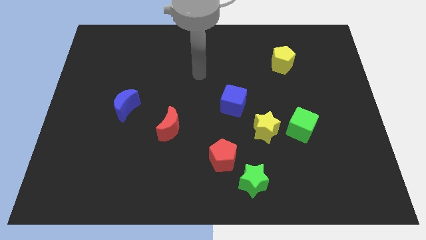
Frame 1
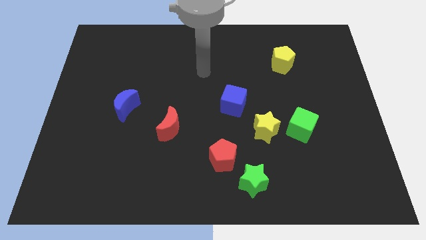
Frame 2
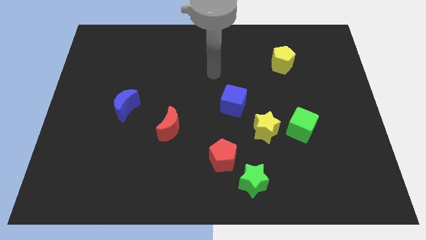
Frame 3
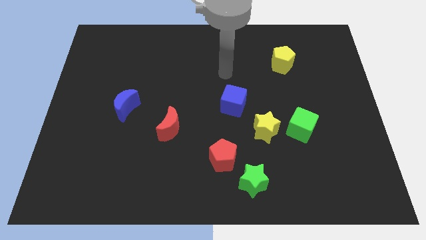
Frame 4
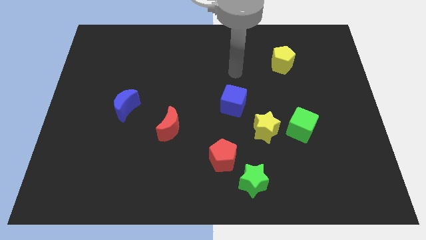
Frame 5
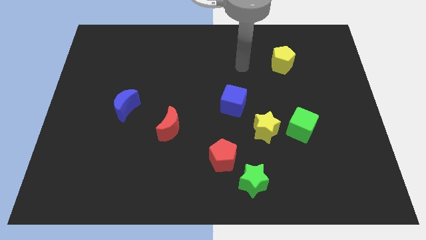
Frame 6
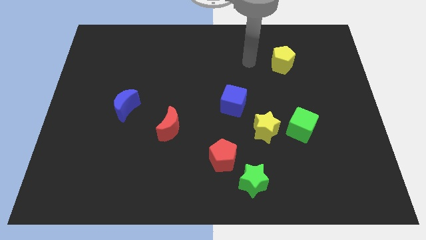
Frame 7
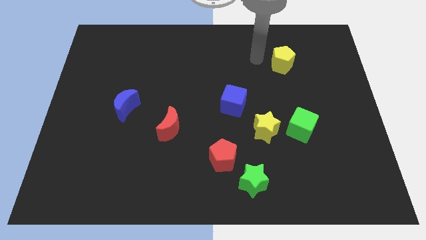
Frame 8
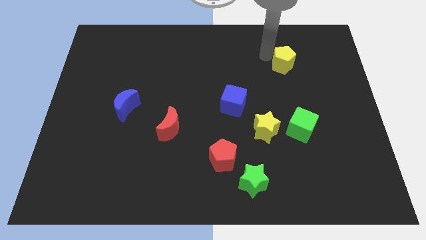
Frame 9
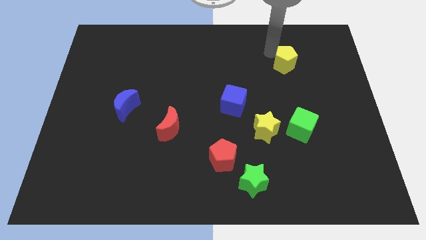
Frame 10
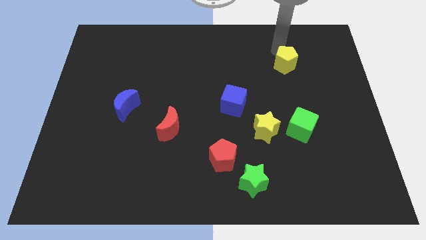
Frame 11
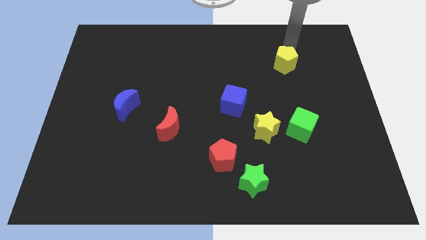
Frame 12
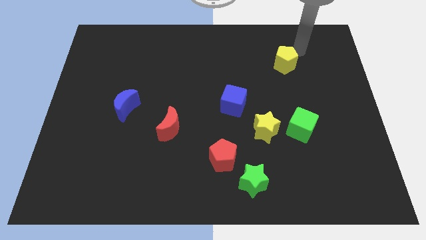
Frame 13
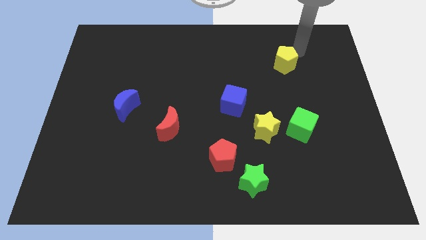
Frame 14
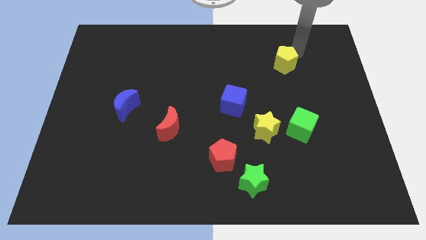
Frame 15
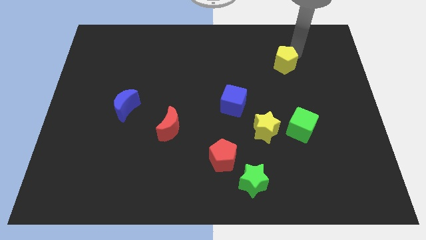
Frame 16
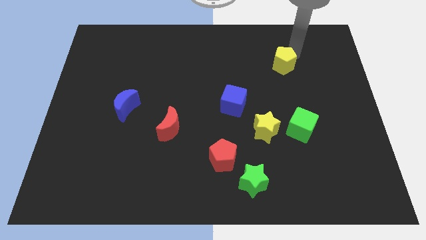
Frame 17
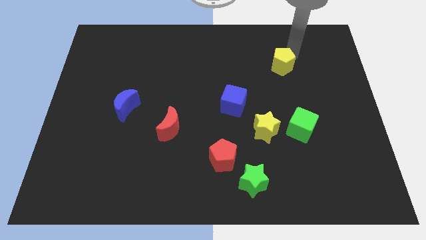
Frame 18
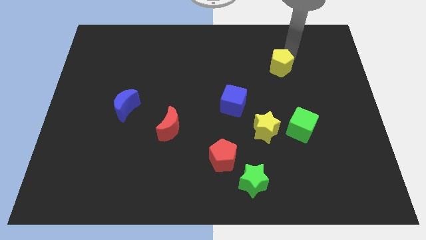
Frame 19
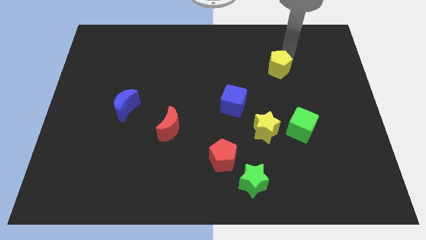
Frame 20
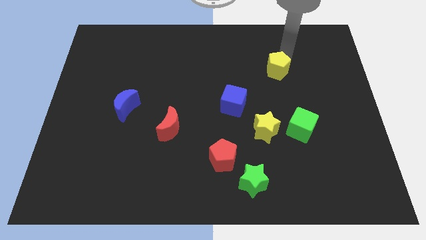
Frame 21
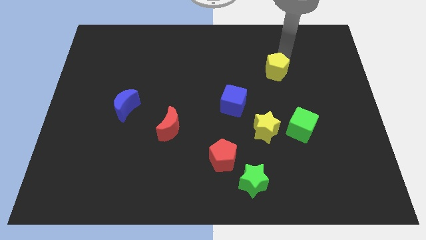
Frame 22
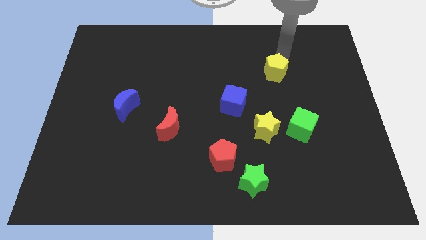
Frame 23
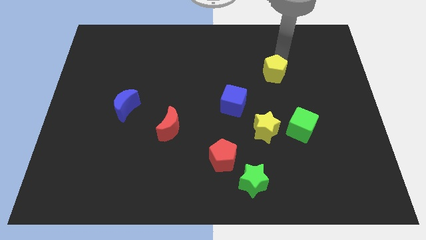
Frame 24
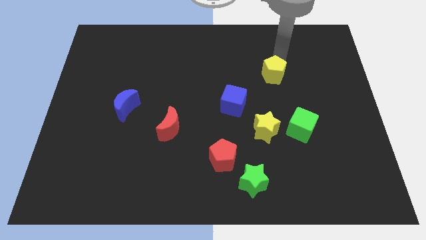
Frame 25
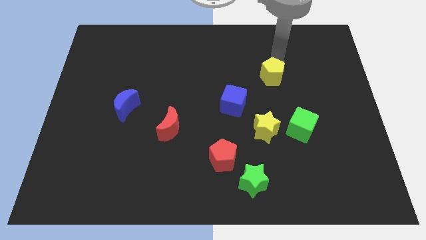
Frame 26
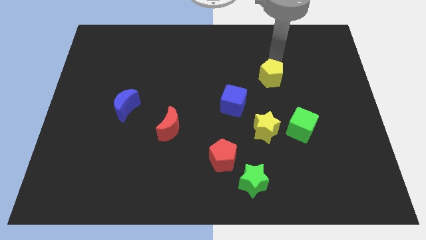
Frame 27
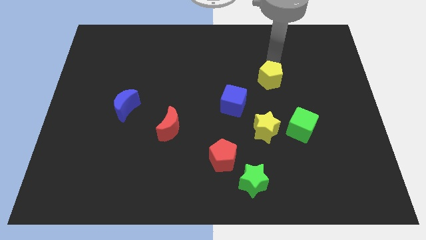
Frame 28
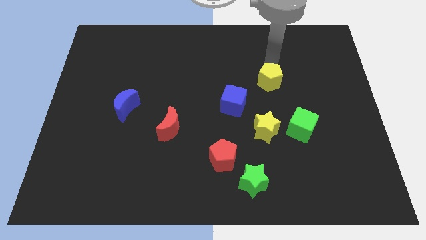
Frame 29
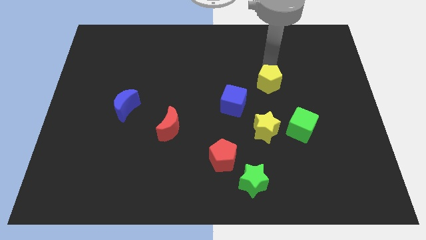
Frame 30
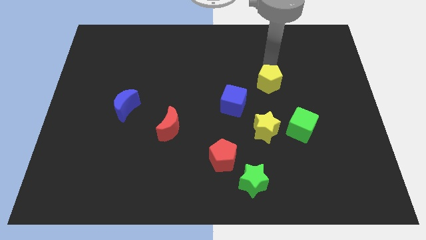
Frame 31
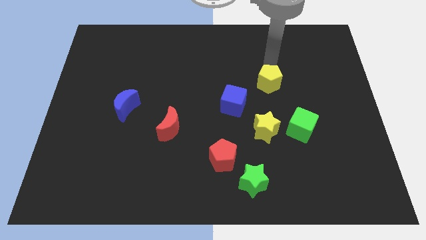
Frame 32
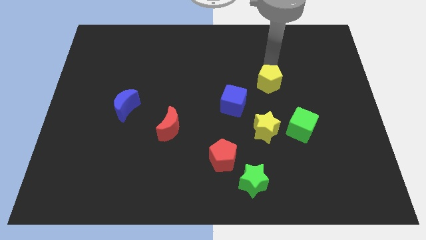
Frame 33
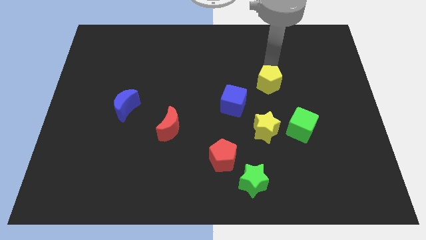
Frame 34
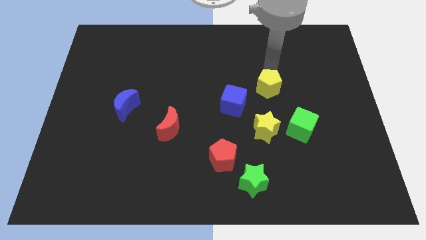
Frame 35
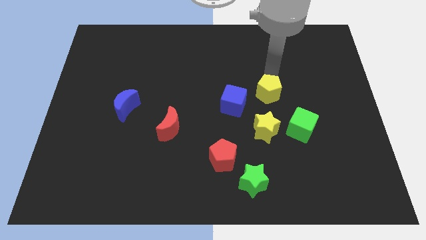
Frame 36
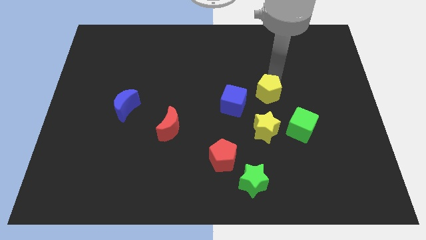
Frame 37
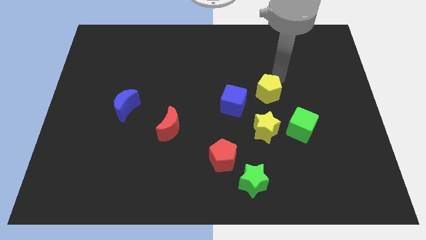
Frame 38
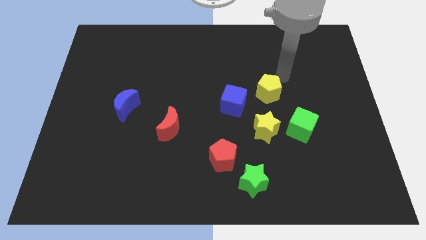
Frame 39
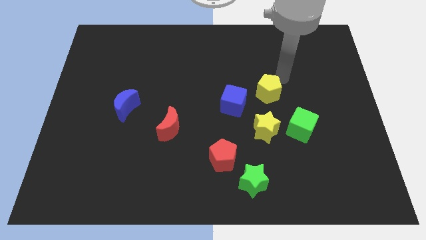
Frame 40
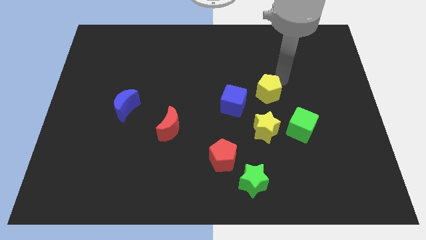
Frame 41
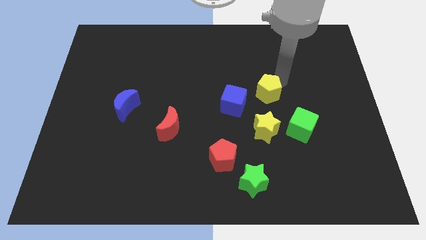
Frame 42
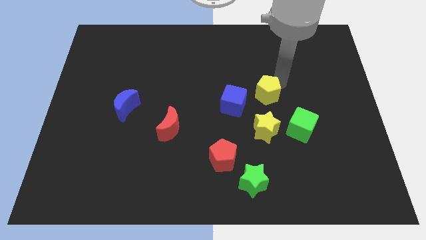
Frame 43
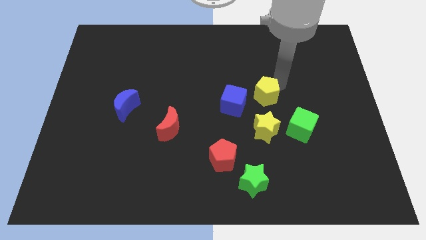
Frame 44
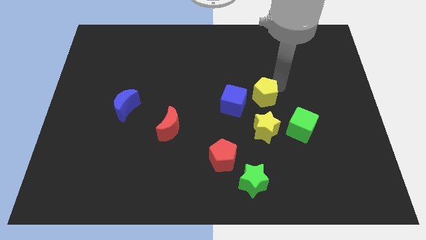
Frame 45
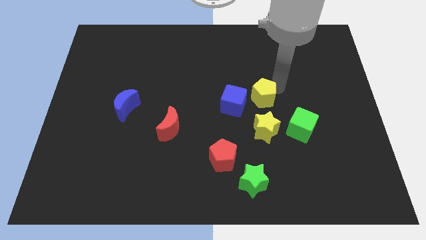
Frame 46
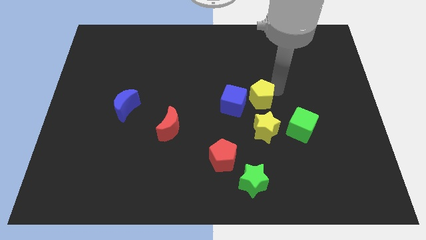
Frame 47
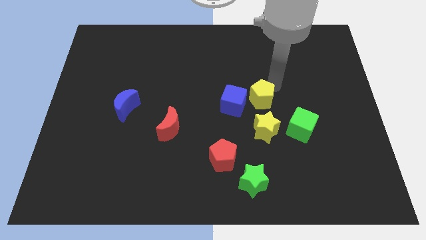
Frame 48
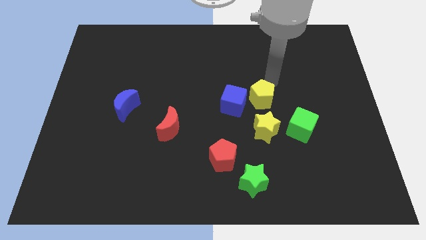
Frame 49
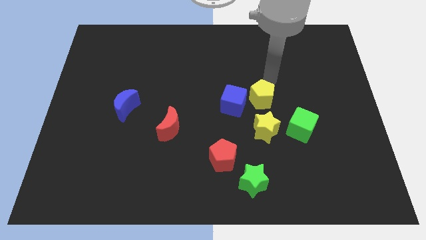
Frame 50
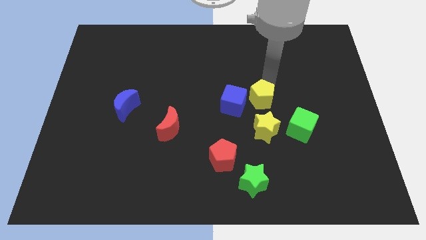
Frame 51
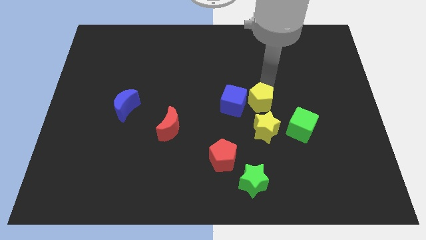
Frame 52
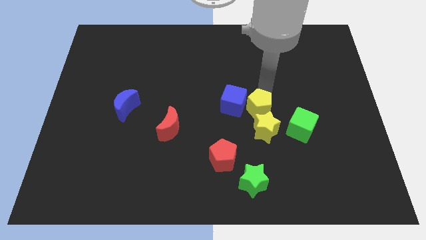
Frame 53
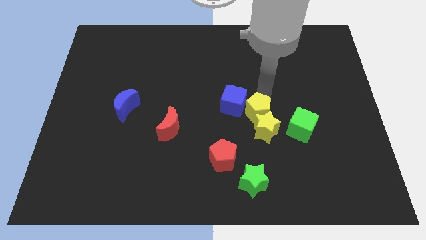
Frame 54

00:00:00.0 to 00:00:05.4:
slide the yellow pentagon to the left of the green cube

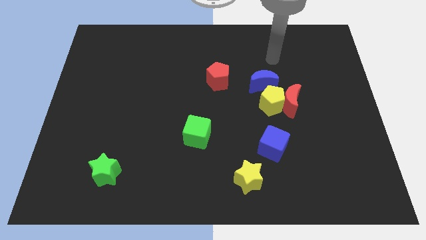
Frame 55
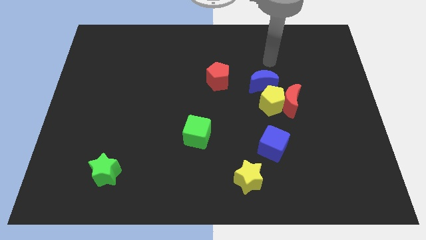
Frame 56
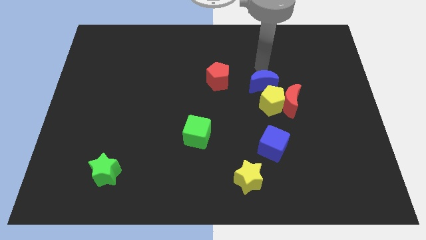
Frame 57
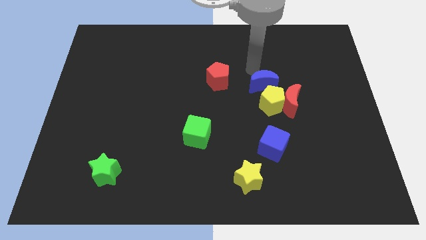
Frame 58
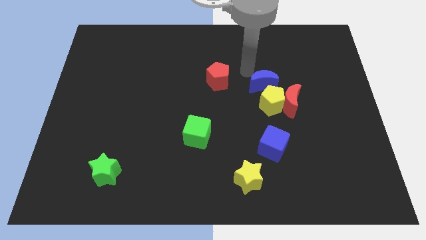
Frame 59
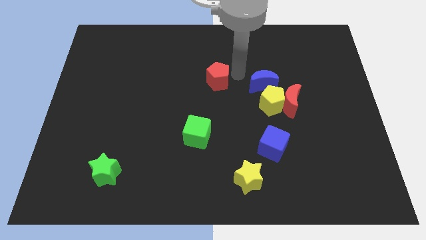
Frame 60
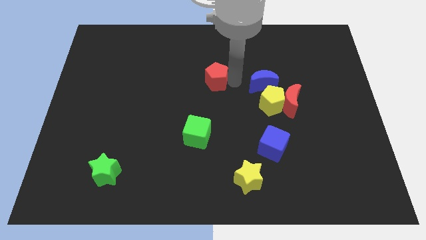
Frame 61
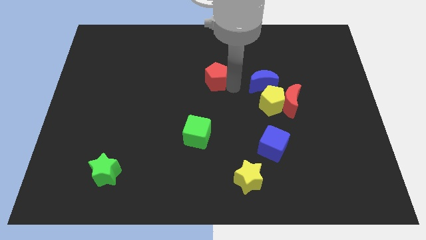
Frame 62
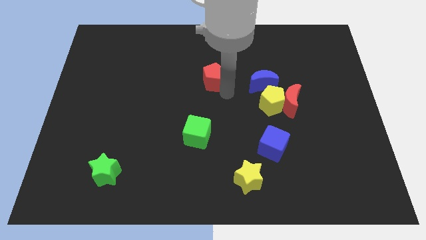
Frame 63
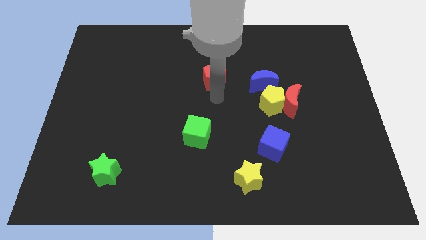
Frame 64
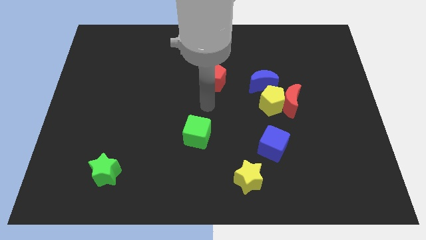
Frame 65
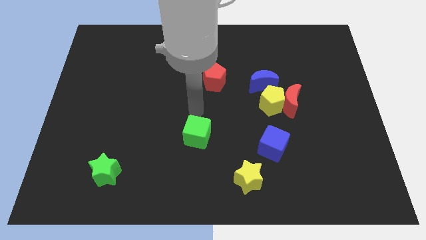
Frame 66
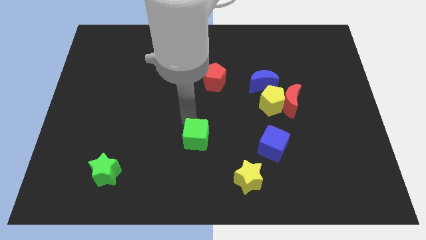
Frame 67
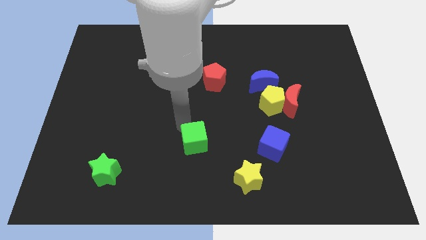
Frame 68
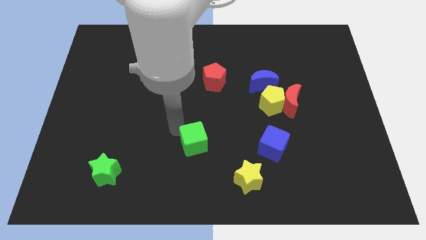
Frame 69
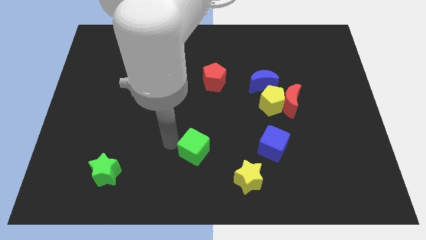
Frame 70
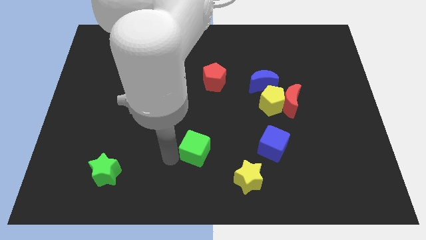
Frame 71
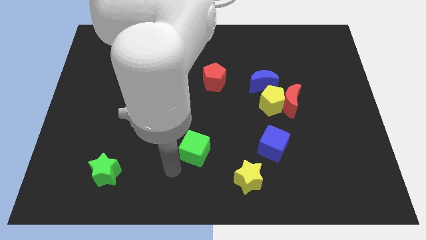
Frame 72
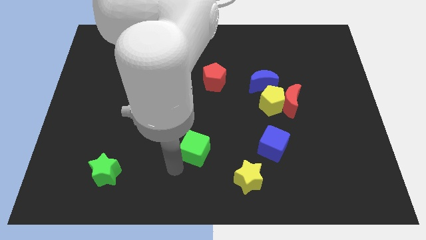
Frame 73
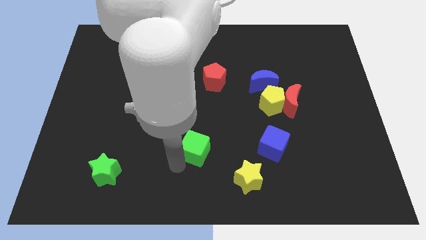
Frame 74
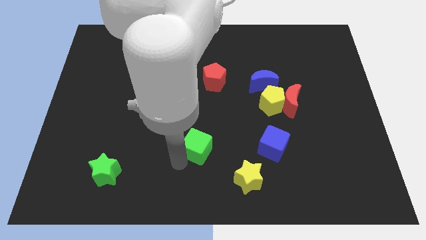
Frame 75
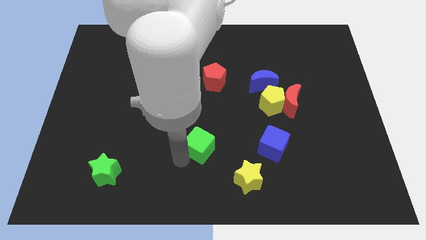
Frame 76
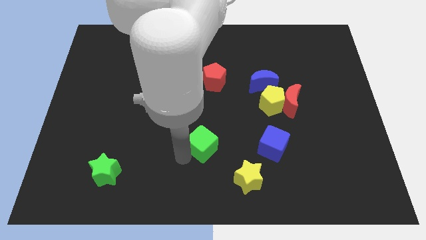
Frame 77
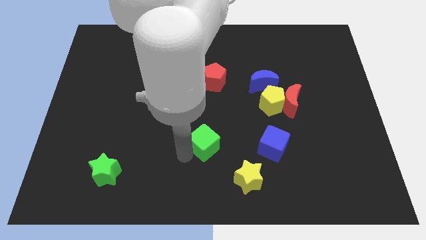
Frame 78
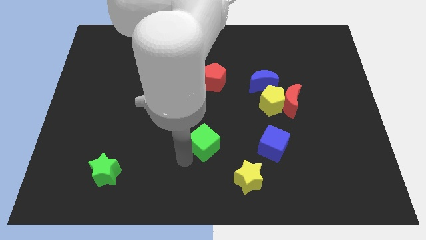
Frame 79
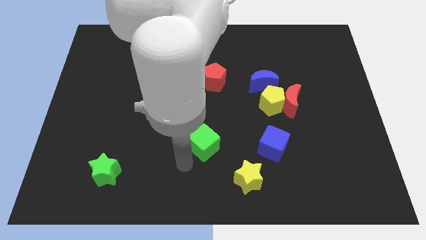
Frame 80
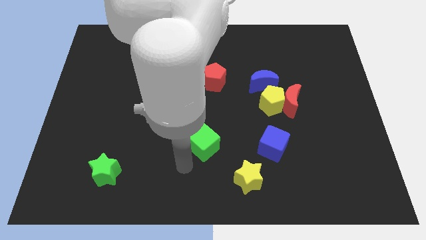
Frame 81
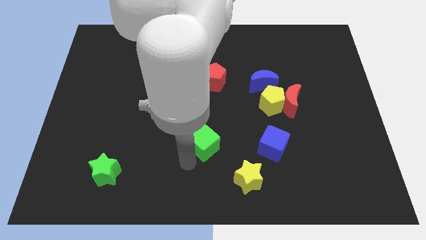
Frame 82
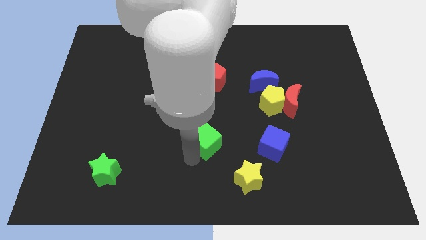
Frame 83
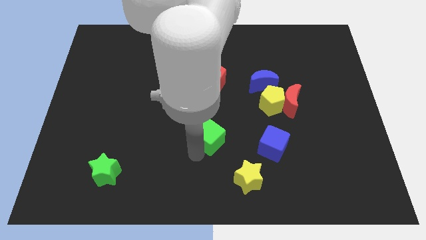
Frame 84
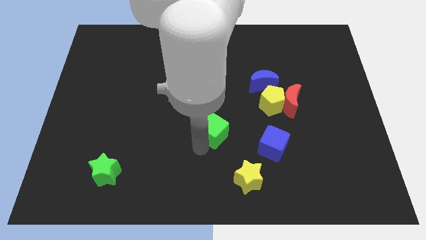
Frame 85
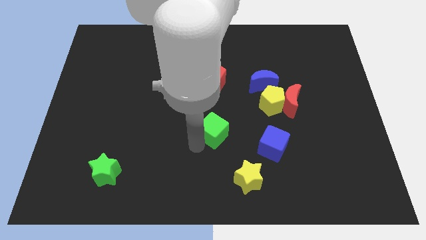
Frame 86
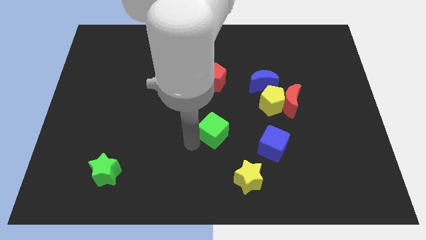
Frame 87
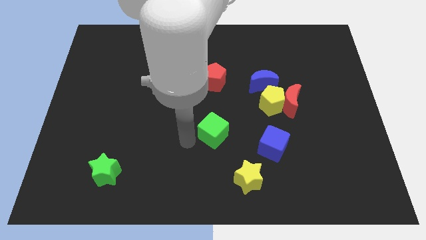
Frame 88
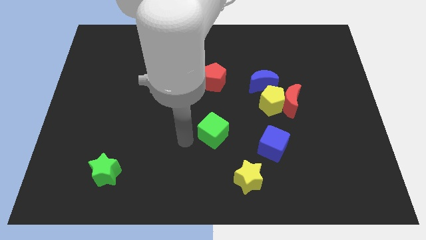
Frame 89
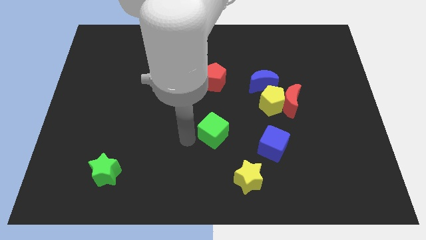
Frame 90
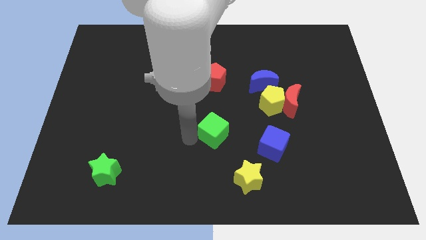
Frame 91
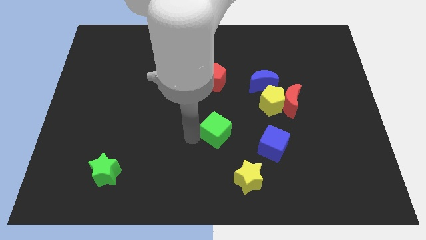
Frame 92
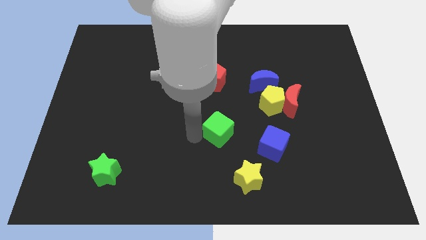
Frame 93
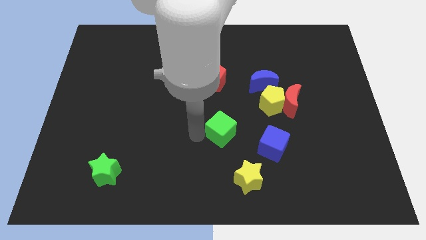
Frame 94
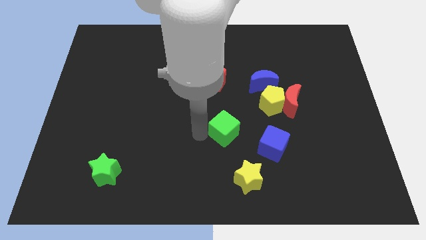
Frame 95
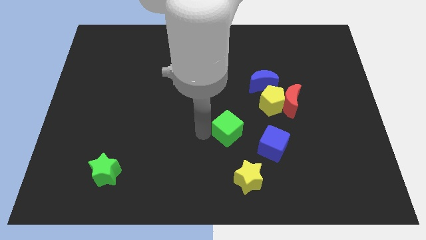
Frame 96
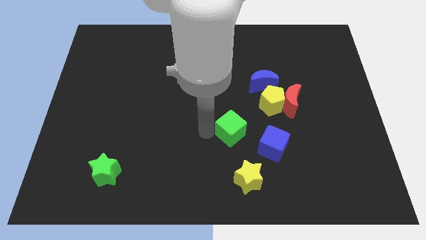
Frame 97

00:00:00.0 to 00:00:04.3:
slide the green cube to the bottom left of the yellow pentagon
